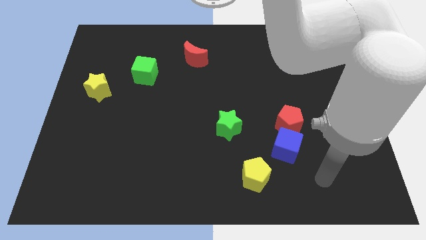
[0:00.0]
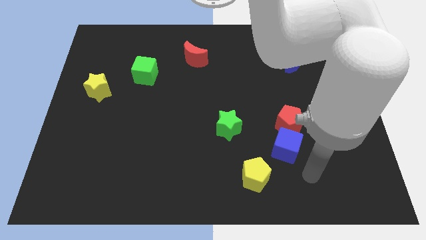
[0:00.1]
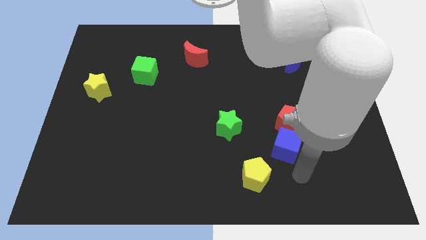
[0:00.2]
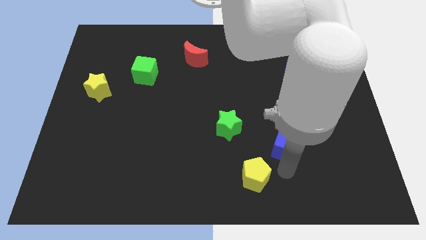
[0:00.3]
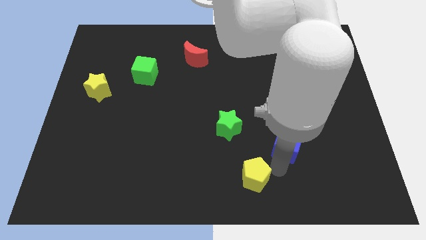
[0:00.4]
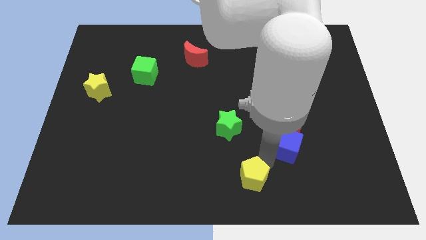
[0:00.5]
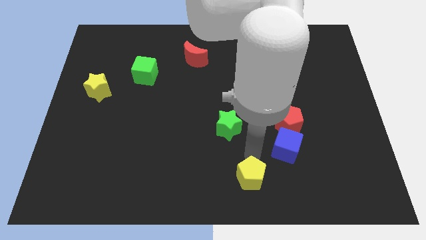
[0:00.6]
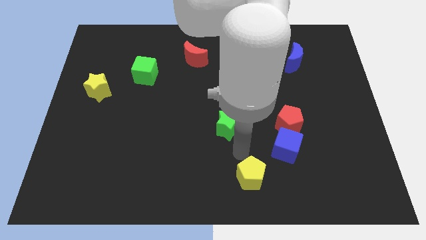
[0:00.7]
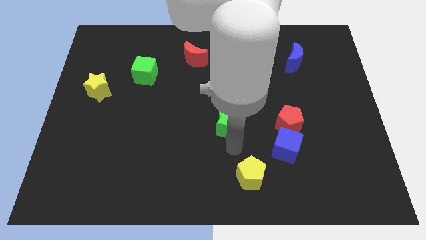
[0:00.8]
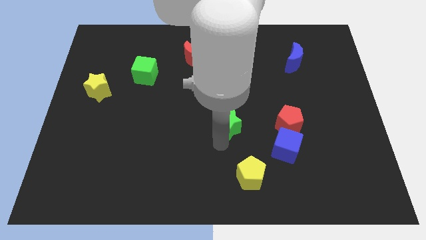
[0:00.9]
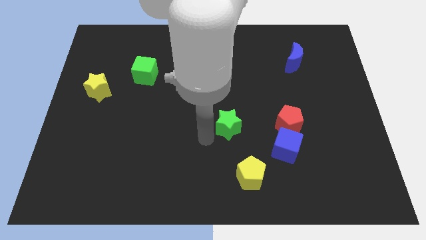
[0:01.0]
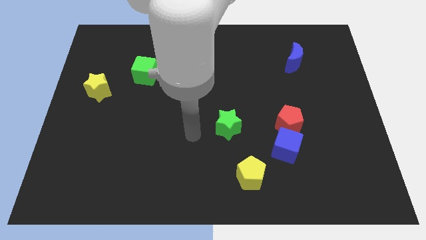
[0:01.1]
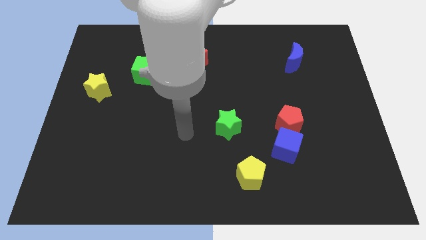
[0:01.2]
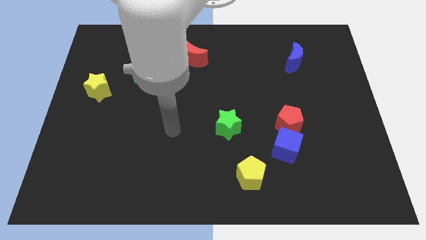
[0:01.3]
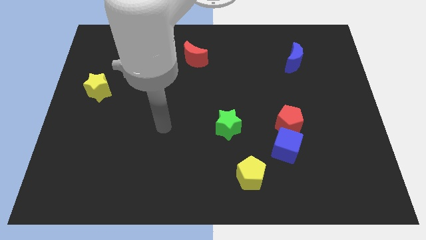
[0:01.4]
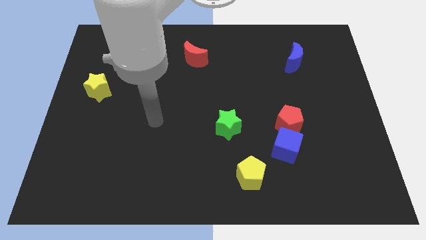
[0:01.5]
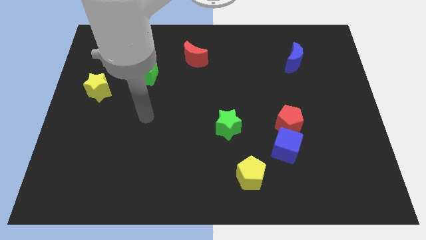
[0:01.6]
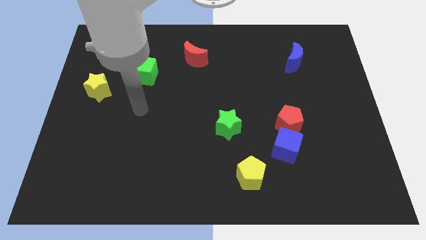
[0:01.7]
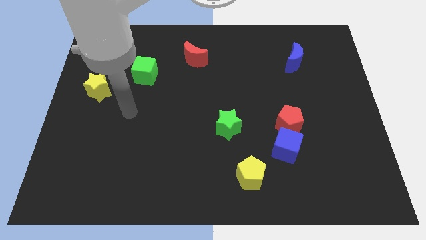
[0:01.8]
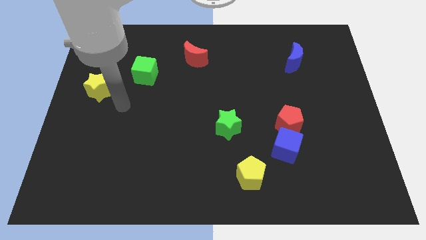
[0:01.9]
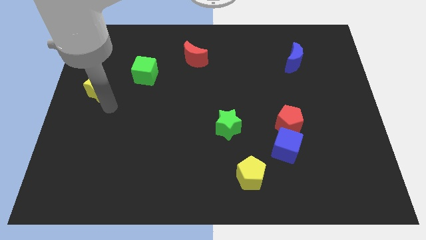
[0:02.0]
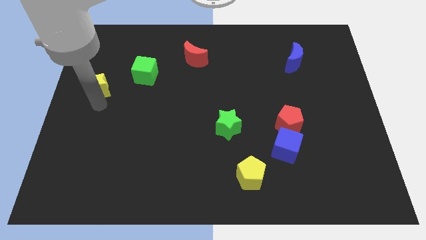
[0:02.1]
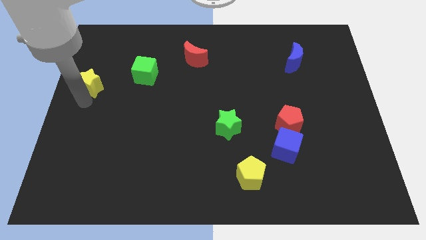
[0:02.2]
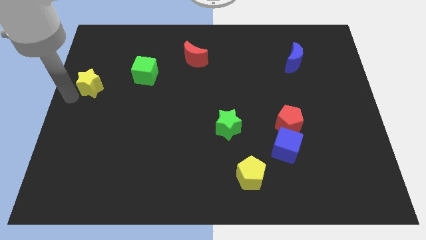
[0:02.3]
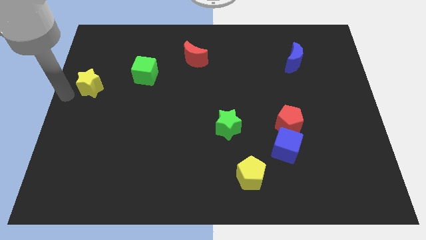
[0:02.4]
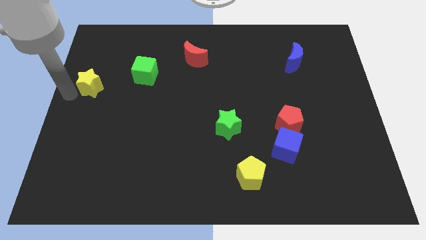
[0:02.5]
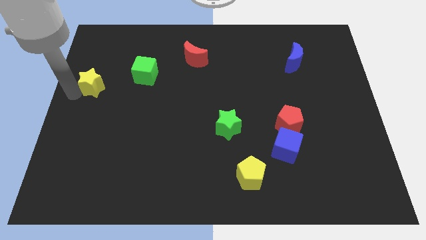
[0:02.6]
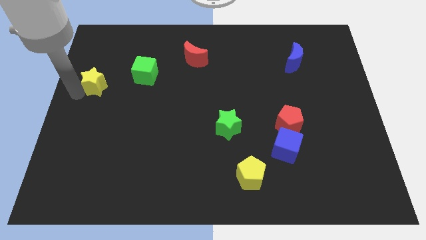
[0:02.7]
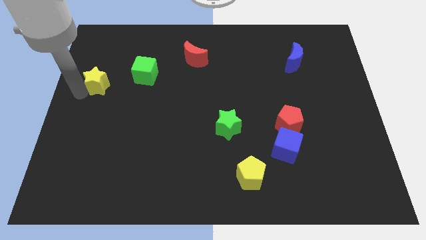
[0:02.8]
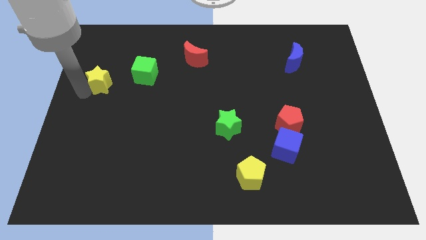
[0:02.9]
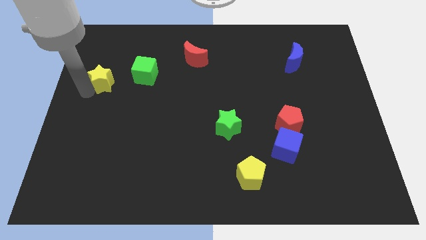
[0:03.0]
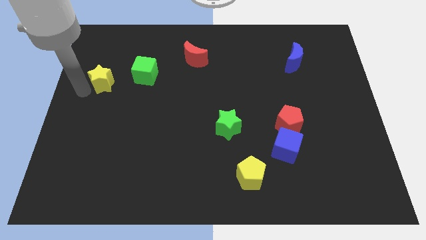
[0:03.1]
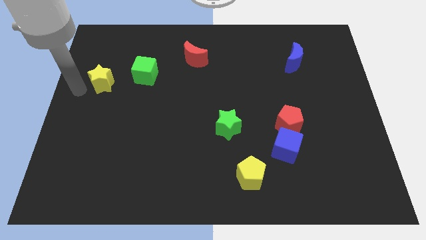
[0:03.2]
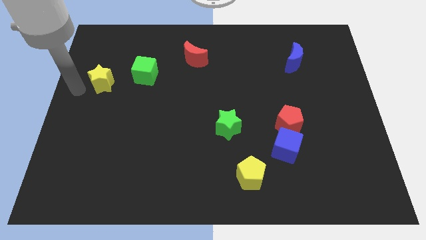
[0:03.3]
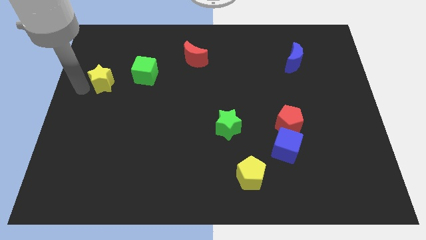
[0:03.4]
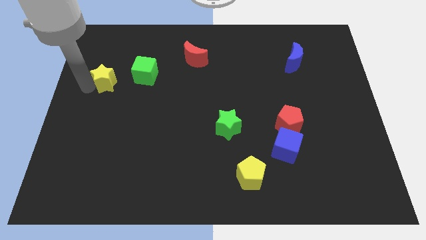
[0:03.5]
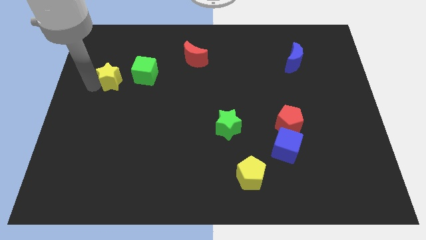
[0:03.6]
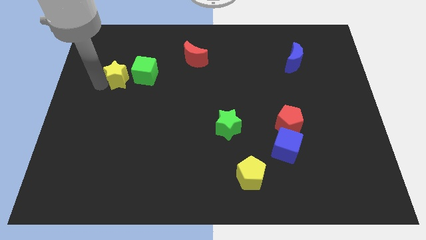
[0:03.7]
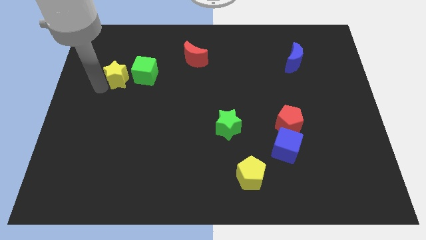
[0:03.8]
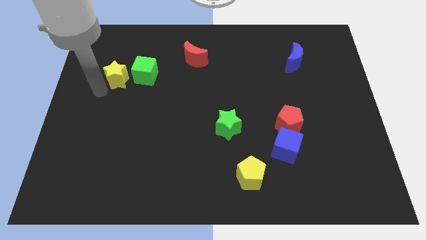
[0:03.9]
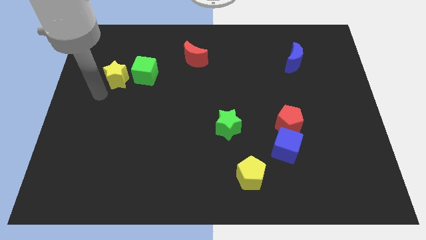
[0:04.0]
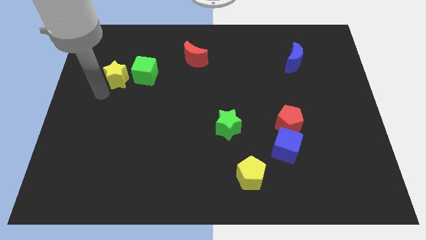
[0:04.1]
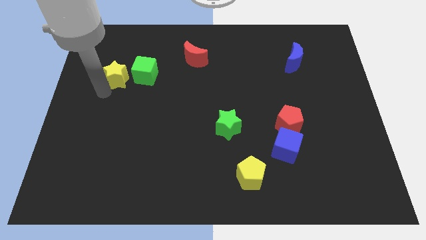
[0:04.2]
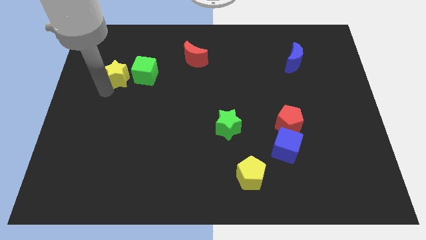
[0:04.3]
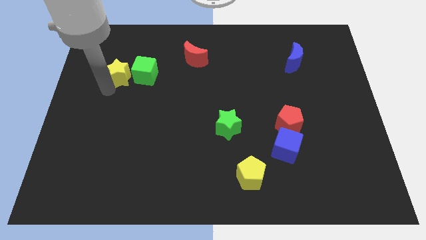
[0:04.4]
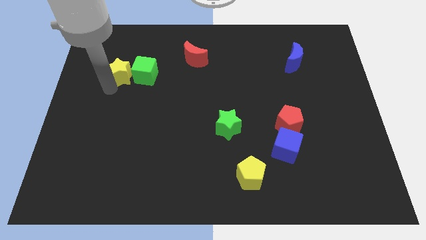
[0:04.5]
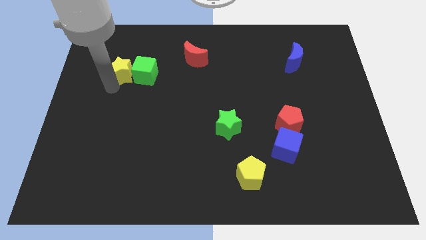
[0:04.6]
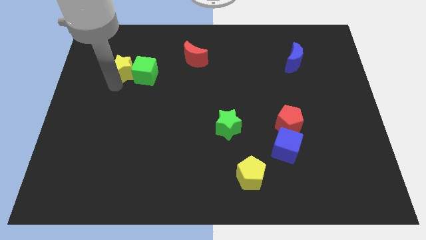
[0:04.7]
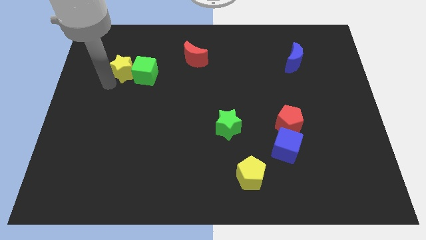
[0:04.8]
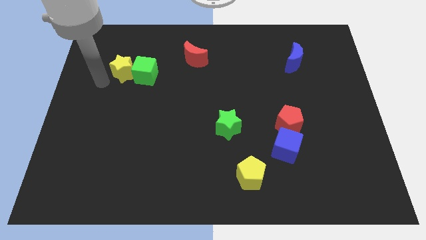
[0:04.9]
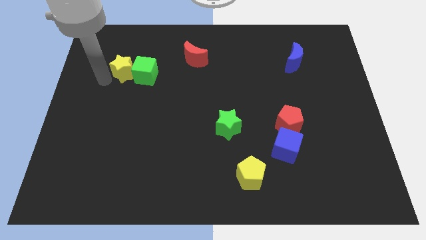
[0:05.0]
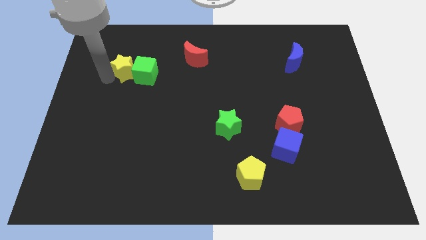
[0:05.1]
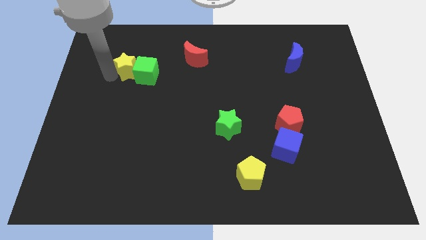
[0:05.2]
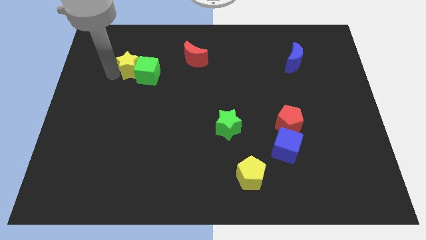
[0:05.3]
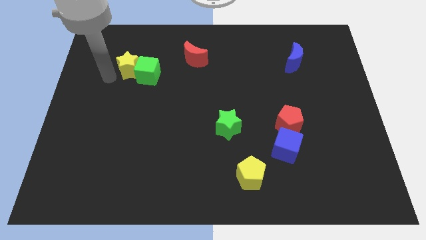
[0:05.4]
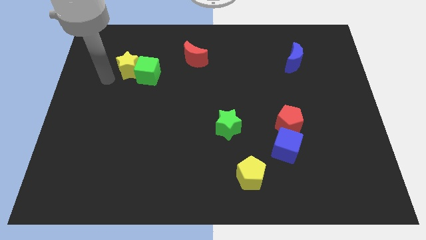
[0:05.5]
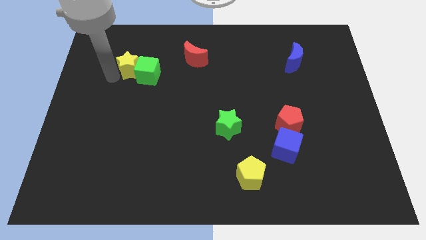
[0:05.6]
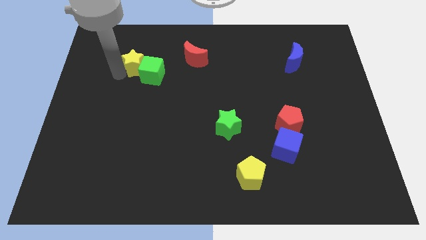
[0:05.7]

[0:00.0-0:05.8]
slide the yellow star left of the red moon

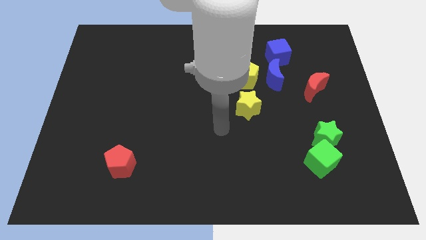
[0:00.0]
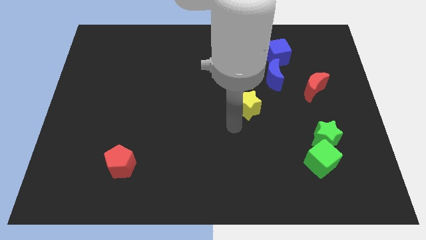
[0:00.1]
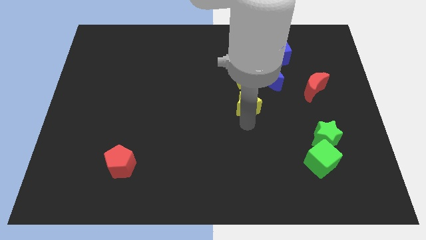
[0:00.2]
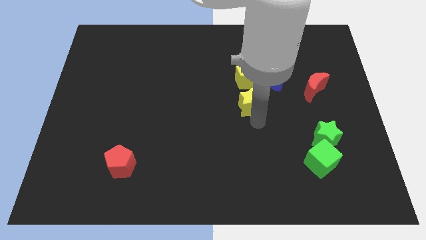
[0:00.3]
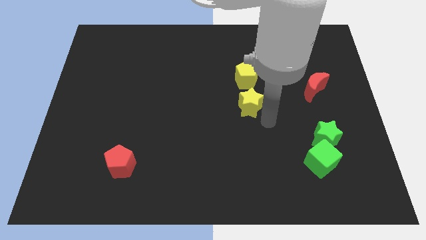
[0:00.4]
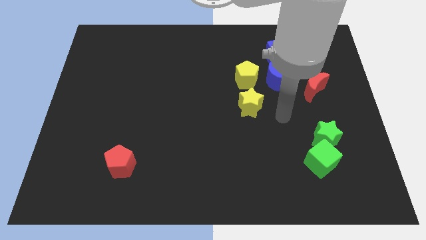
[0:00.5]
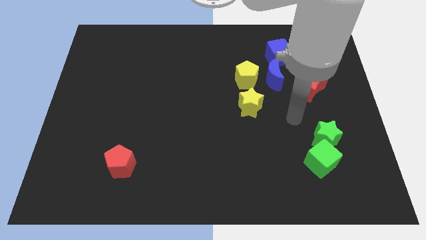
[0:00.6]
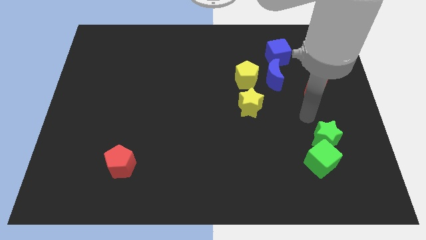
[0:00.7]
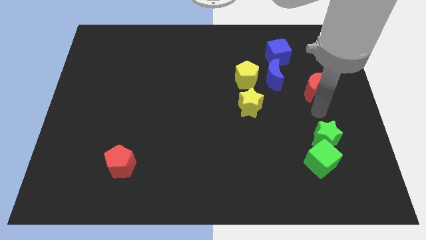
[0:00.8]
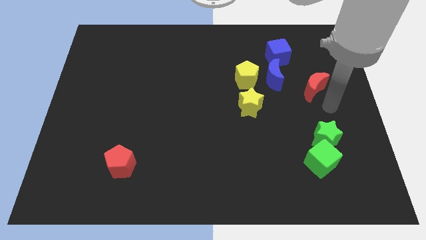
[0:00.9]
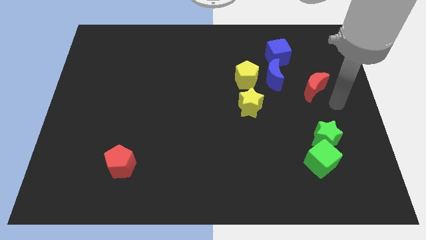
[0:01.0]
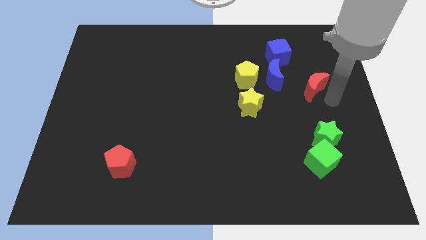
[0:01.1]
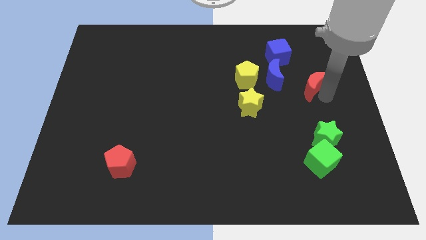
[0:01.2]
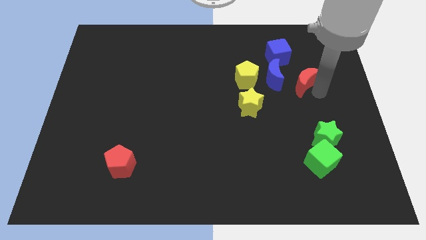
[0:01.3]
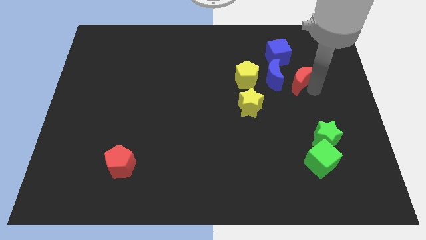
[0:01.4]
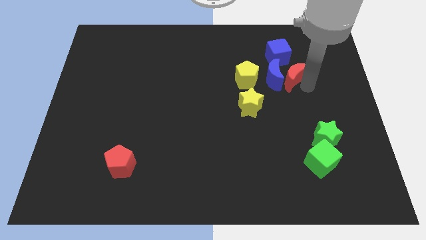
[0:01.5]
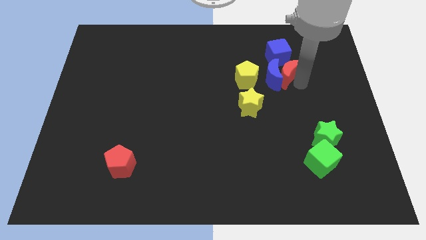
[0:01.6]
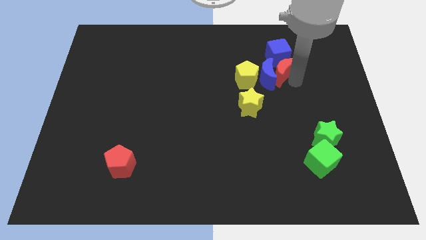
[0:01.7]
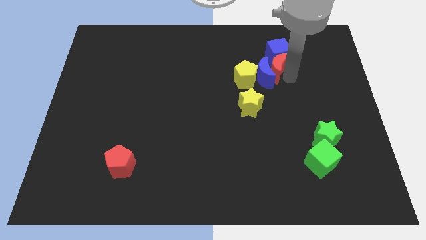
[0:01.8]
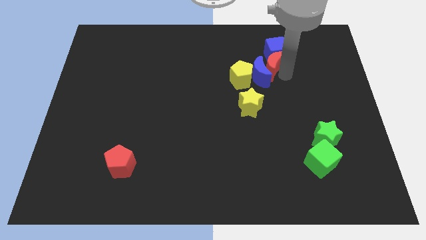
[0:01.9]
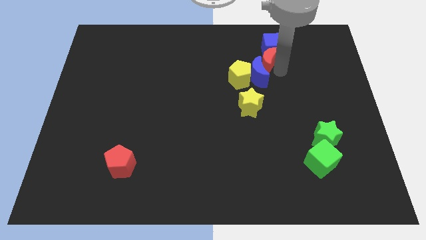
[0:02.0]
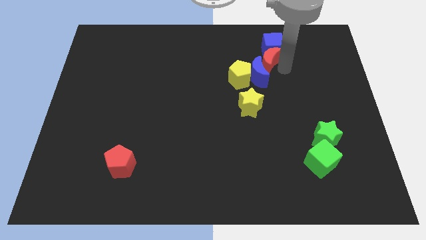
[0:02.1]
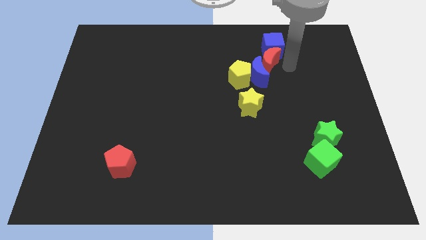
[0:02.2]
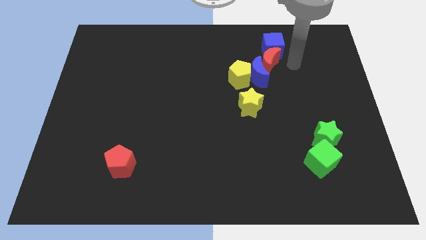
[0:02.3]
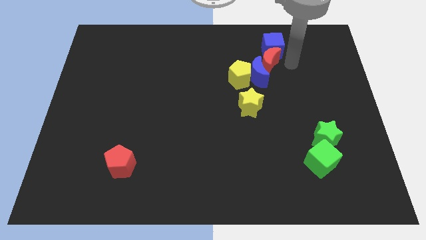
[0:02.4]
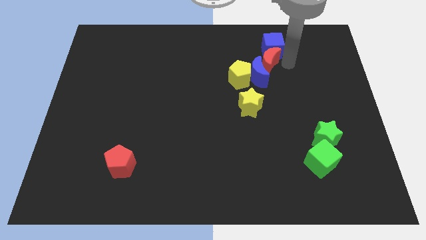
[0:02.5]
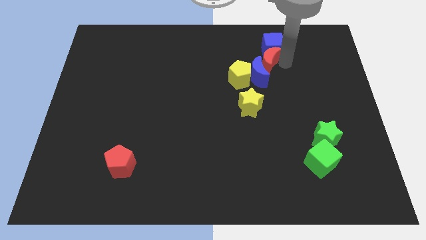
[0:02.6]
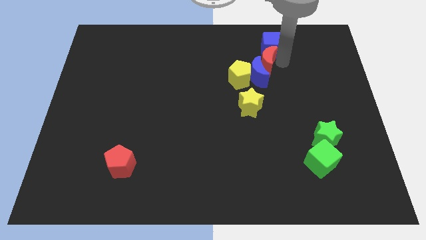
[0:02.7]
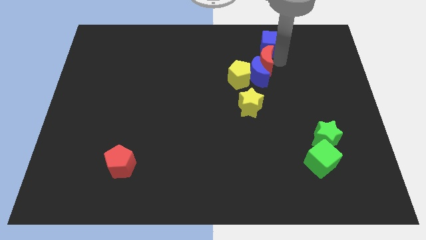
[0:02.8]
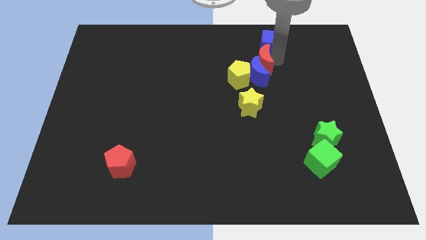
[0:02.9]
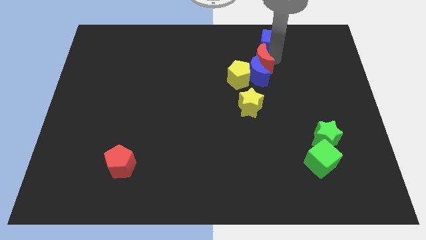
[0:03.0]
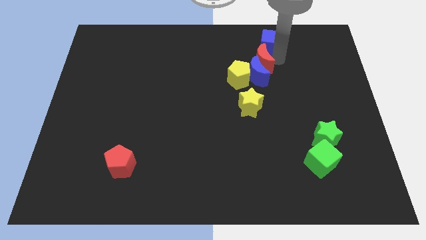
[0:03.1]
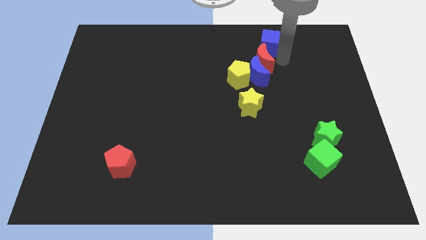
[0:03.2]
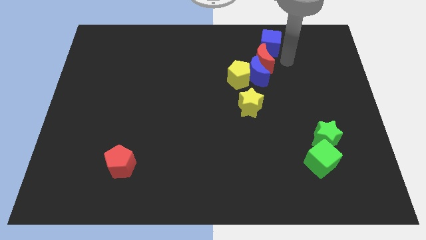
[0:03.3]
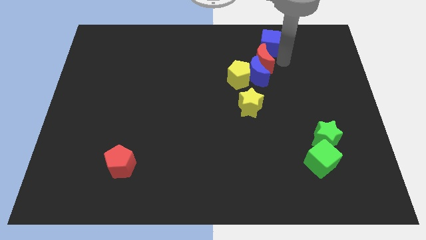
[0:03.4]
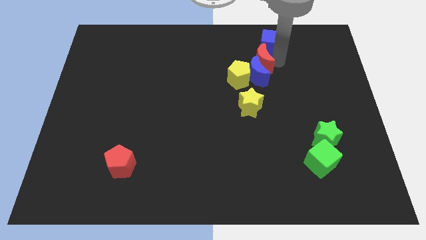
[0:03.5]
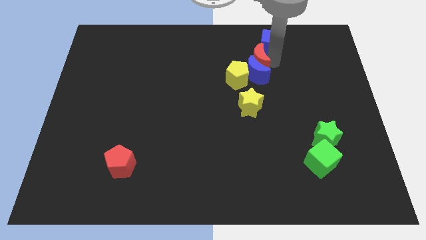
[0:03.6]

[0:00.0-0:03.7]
put the red moon above the yellow star
